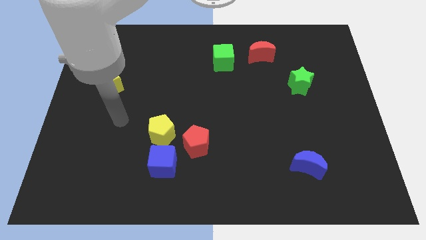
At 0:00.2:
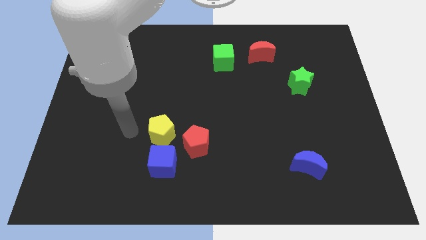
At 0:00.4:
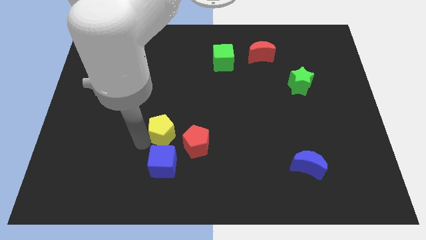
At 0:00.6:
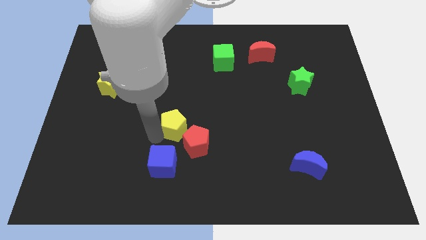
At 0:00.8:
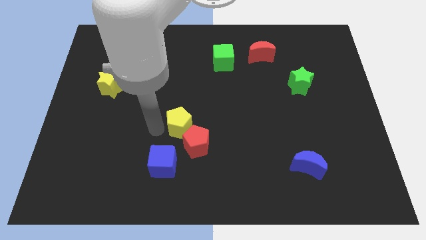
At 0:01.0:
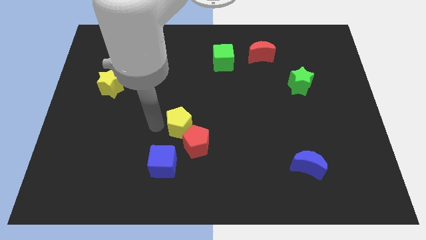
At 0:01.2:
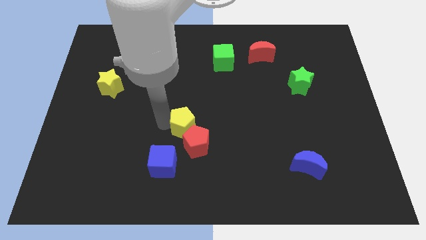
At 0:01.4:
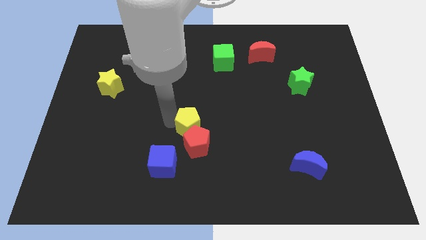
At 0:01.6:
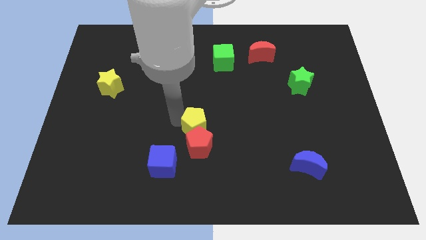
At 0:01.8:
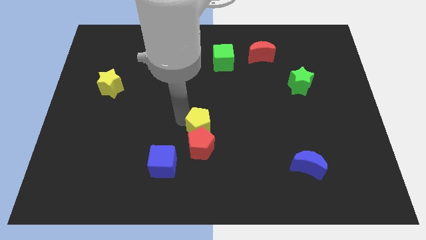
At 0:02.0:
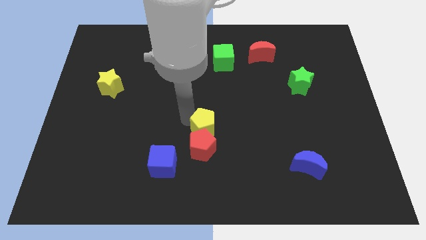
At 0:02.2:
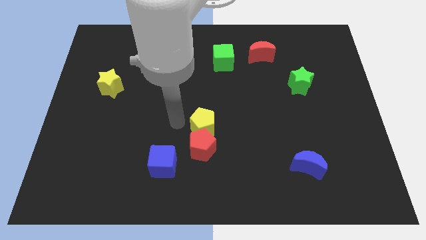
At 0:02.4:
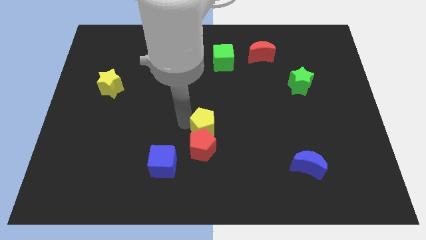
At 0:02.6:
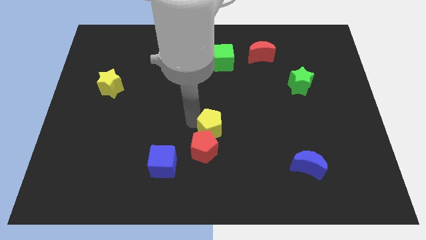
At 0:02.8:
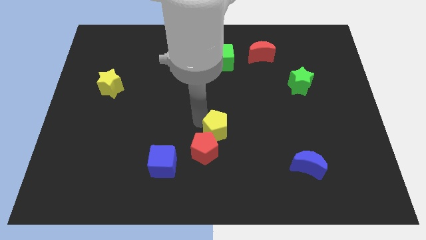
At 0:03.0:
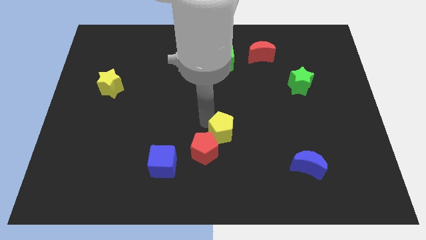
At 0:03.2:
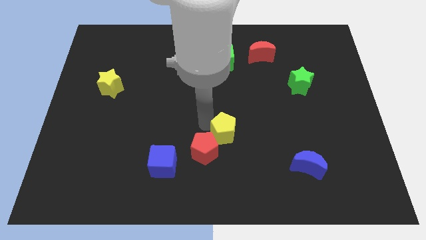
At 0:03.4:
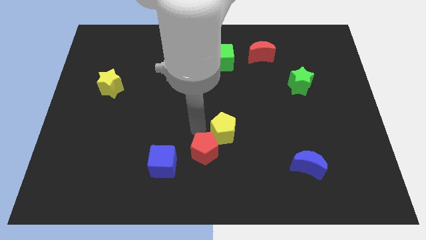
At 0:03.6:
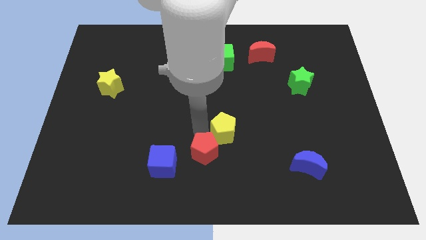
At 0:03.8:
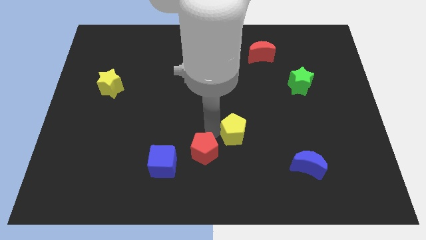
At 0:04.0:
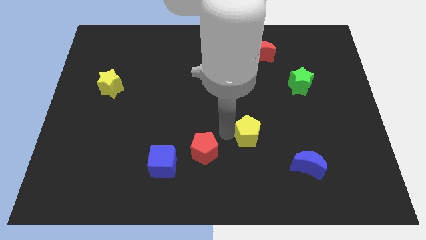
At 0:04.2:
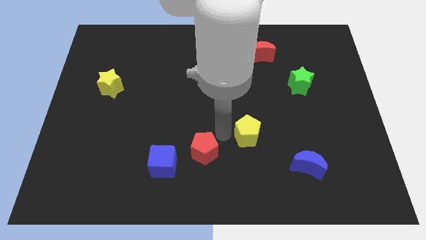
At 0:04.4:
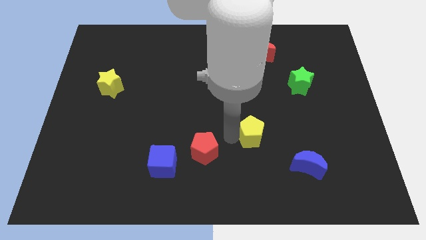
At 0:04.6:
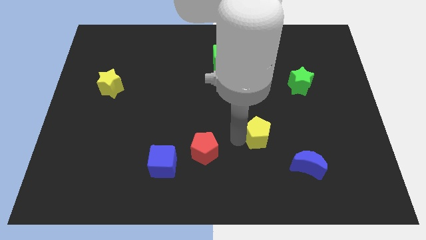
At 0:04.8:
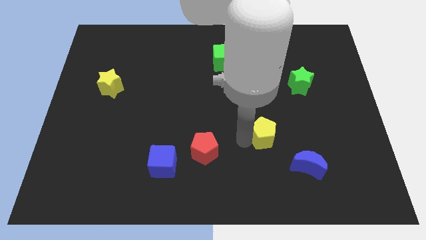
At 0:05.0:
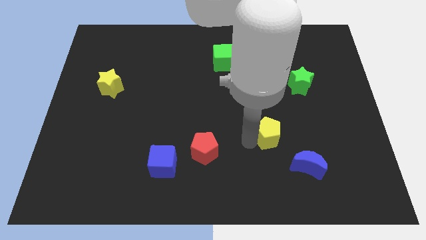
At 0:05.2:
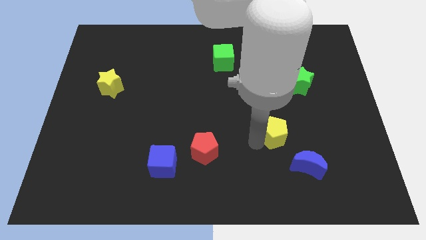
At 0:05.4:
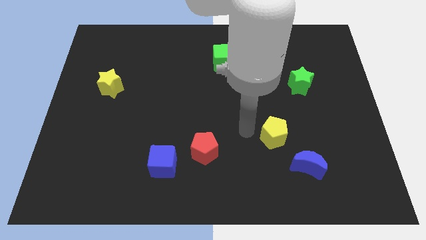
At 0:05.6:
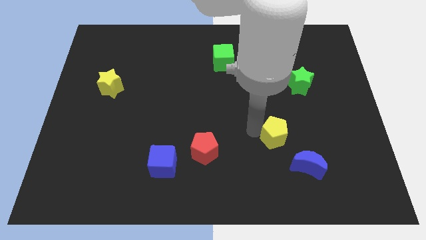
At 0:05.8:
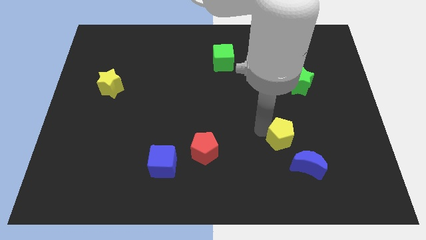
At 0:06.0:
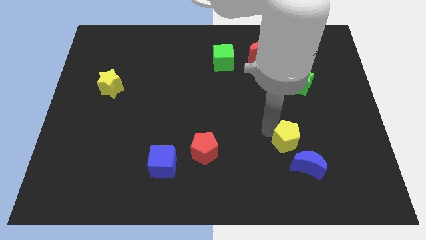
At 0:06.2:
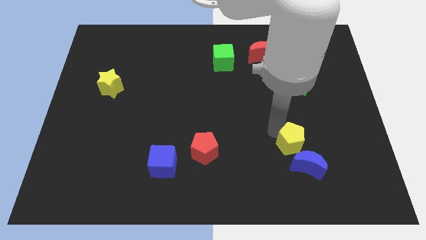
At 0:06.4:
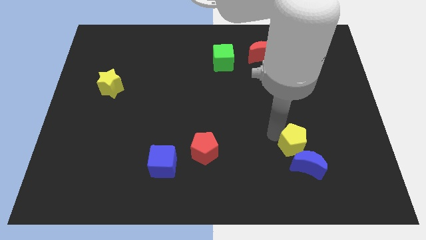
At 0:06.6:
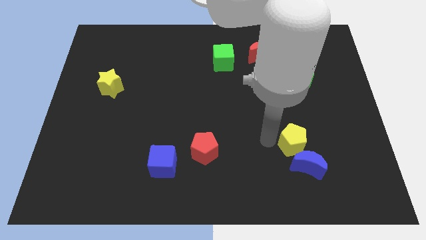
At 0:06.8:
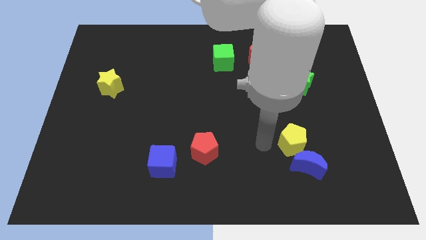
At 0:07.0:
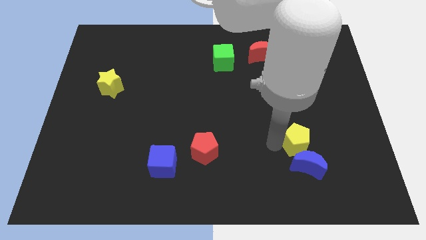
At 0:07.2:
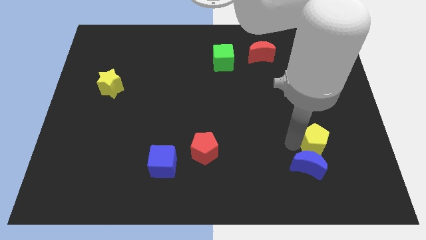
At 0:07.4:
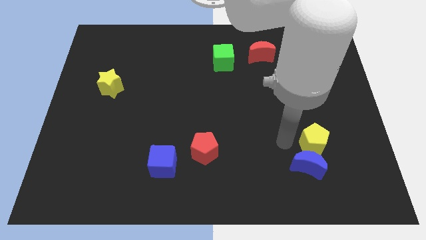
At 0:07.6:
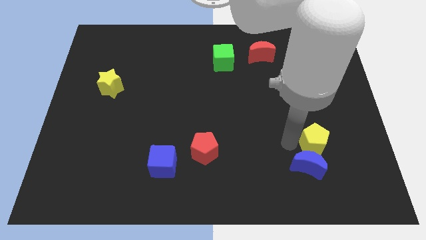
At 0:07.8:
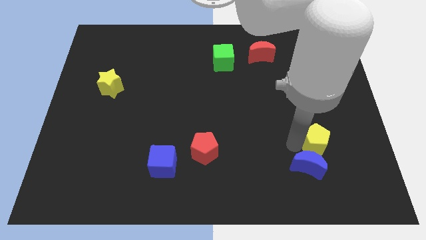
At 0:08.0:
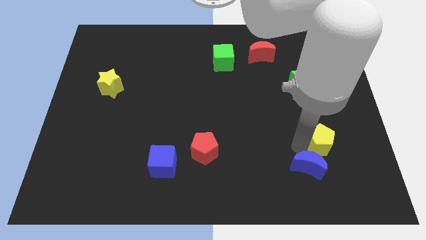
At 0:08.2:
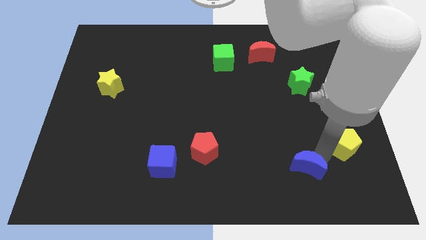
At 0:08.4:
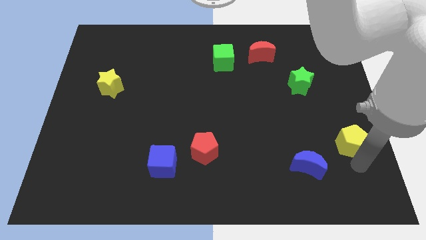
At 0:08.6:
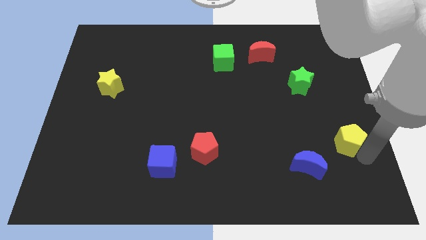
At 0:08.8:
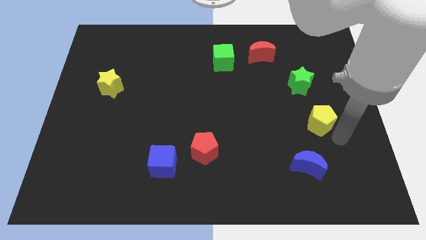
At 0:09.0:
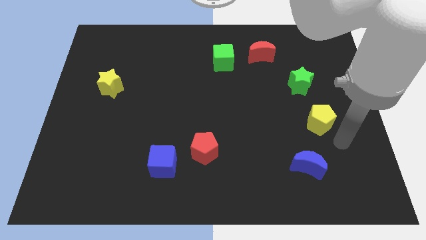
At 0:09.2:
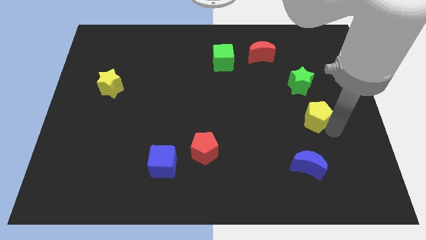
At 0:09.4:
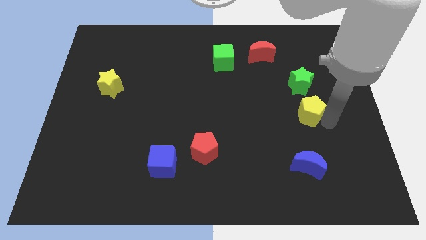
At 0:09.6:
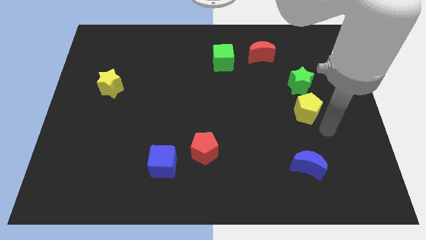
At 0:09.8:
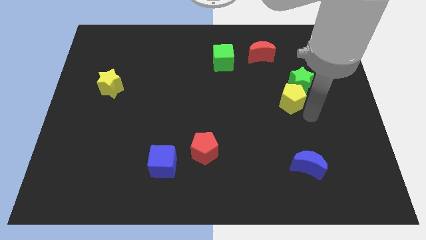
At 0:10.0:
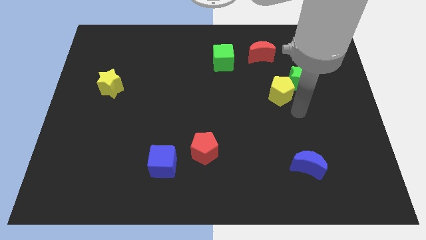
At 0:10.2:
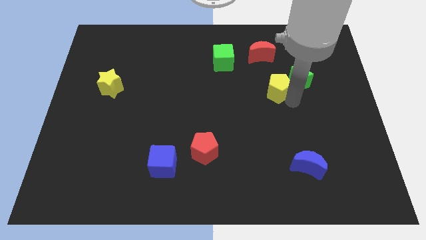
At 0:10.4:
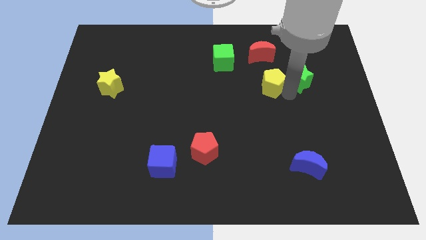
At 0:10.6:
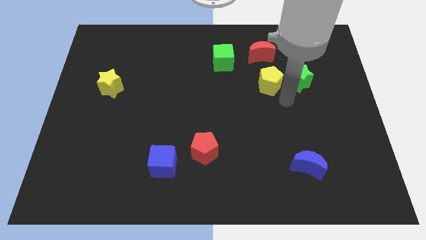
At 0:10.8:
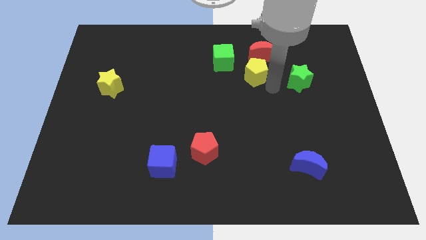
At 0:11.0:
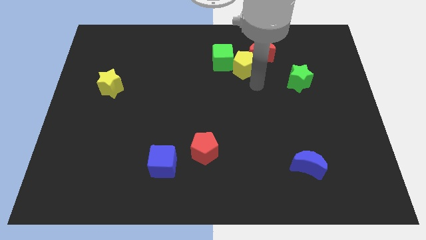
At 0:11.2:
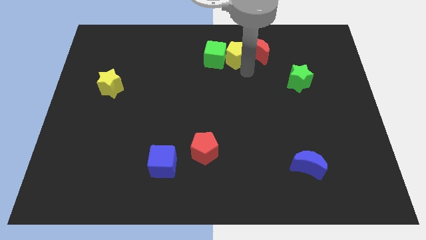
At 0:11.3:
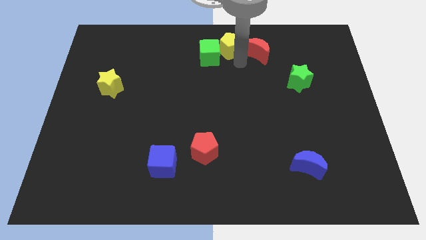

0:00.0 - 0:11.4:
push the yellow pentagon to the top side

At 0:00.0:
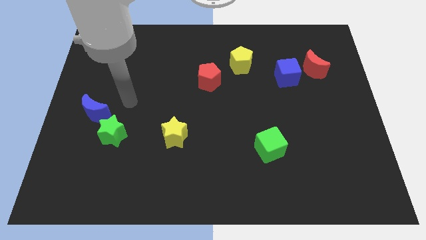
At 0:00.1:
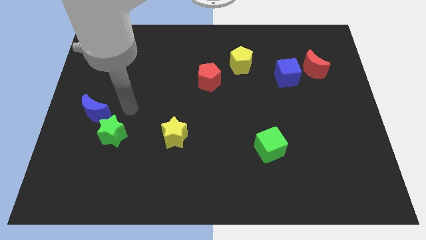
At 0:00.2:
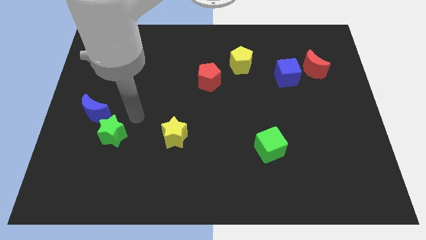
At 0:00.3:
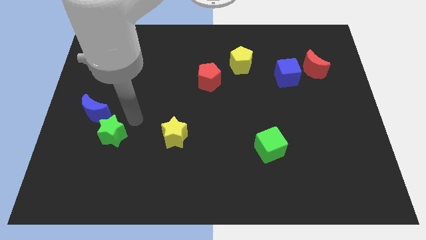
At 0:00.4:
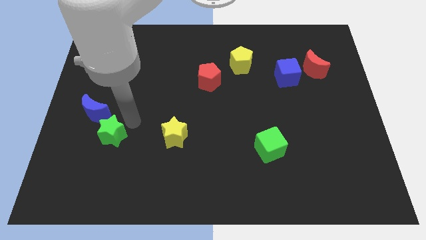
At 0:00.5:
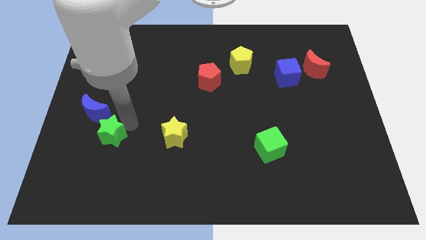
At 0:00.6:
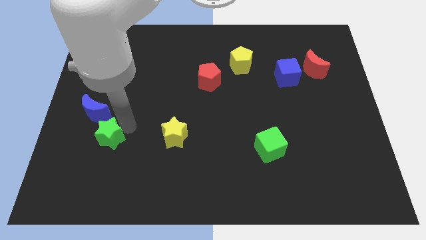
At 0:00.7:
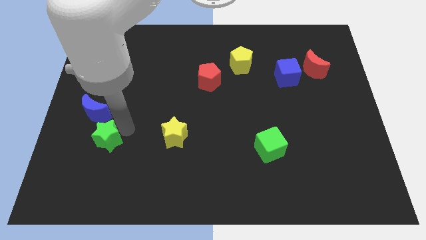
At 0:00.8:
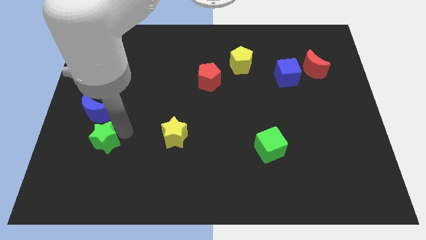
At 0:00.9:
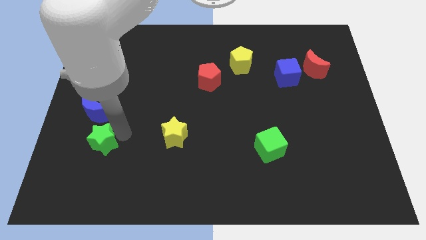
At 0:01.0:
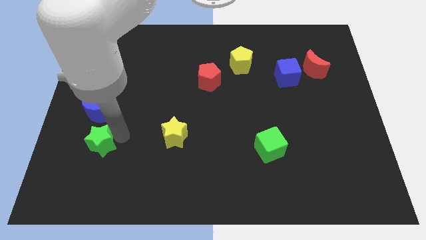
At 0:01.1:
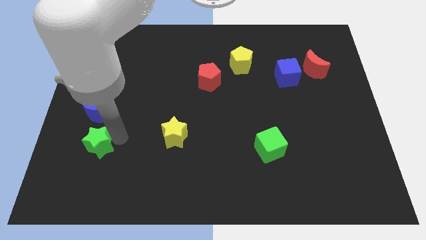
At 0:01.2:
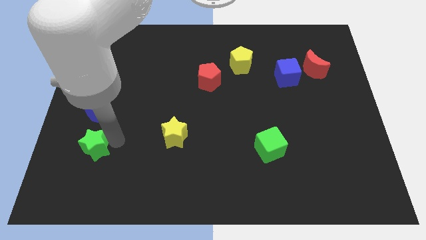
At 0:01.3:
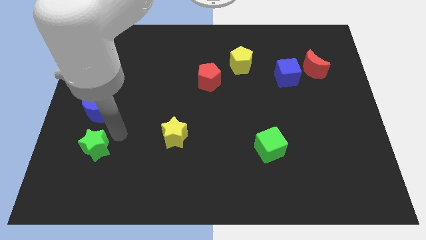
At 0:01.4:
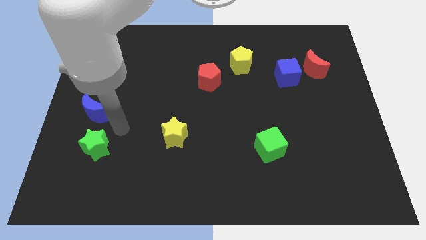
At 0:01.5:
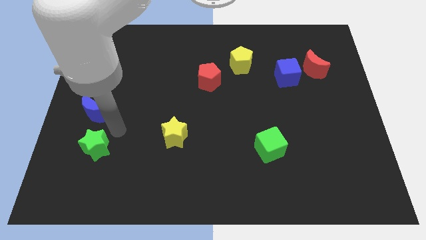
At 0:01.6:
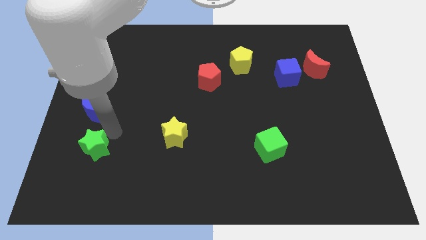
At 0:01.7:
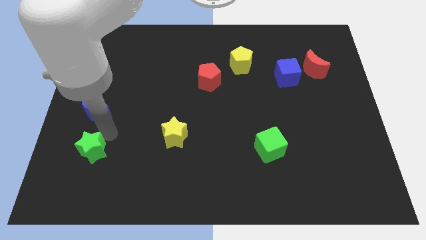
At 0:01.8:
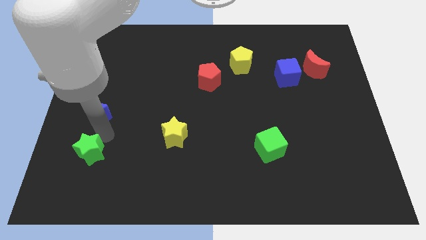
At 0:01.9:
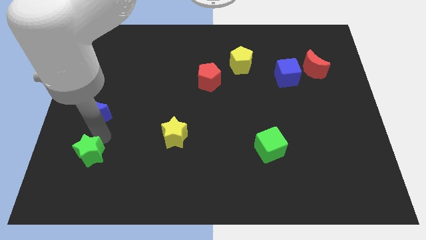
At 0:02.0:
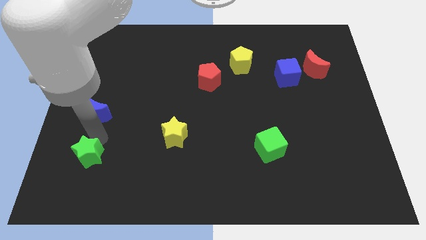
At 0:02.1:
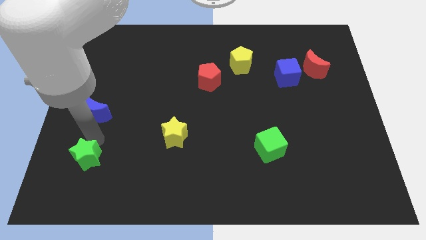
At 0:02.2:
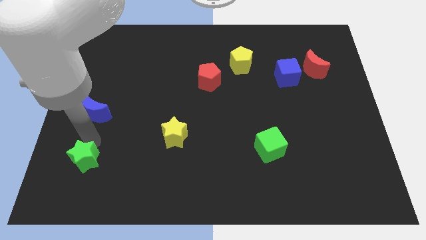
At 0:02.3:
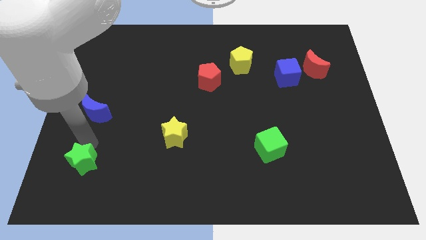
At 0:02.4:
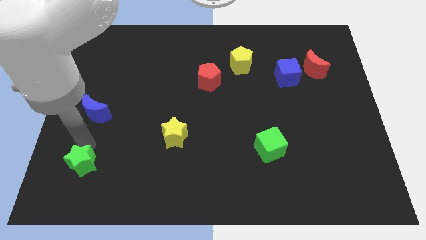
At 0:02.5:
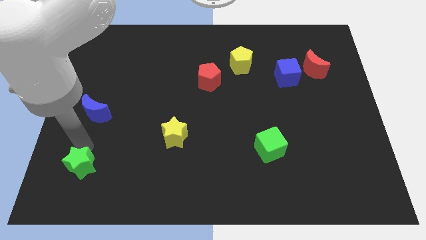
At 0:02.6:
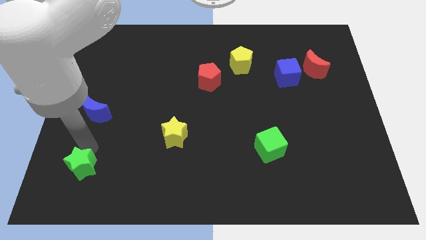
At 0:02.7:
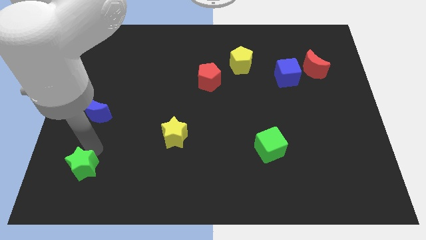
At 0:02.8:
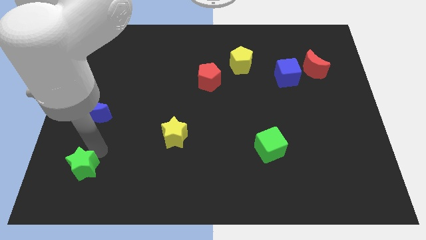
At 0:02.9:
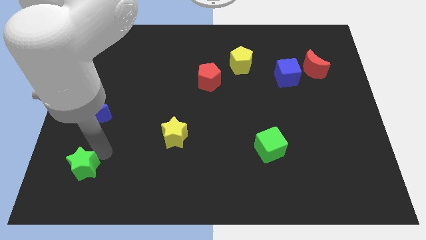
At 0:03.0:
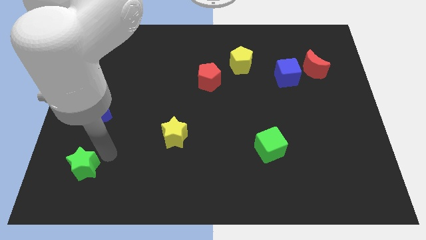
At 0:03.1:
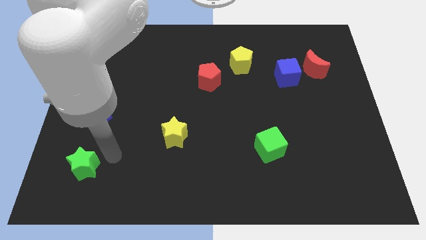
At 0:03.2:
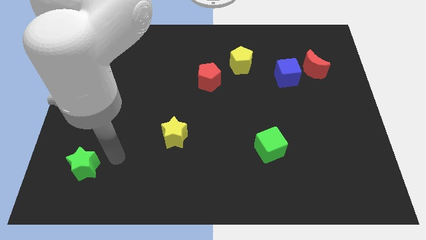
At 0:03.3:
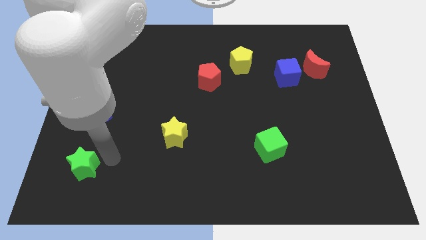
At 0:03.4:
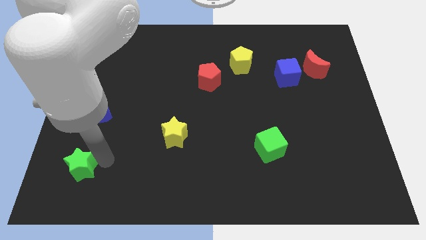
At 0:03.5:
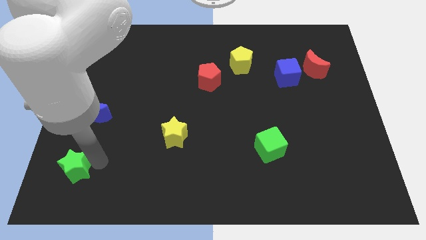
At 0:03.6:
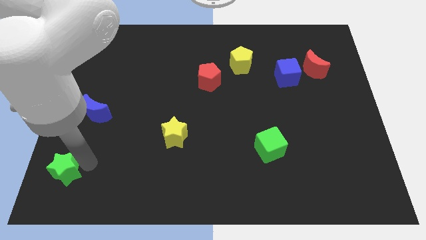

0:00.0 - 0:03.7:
put the green star to the lower left corner
